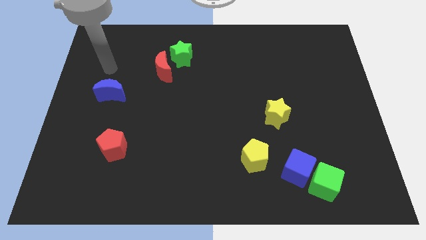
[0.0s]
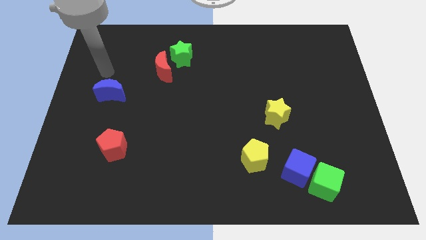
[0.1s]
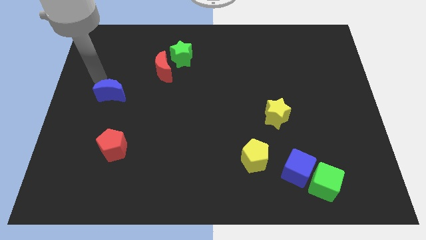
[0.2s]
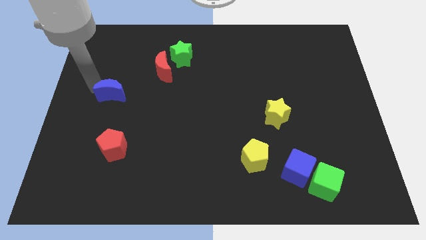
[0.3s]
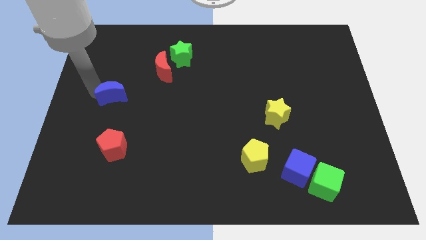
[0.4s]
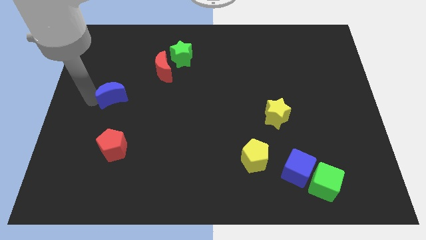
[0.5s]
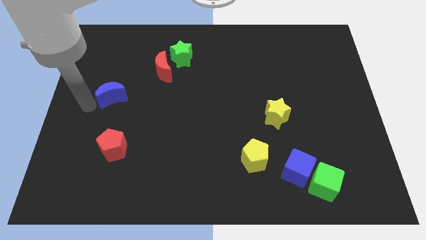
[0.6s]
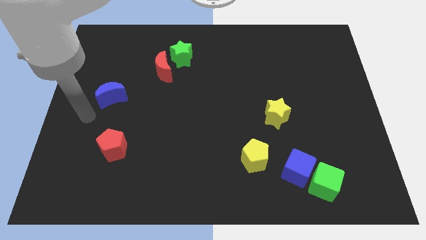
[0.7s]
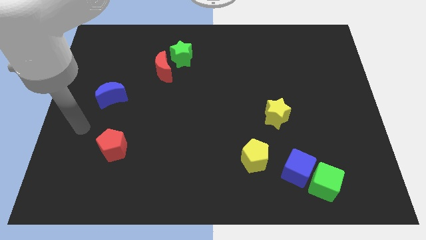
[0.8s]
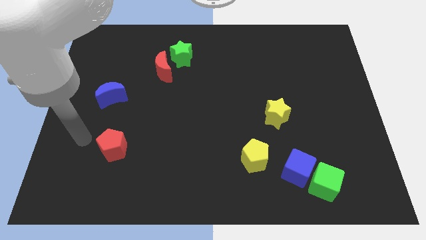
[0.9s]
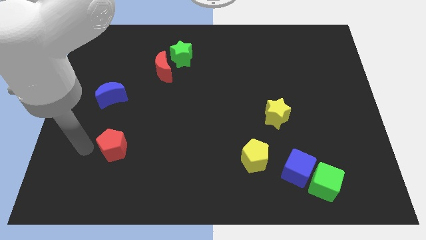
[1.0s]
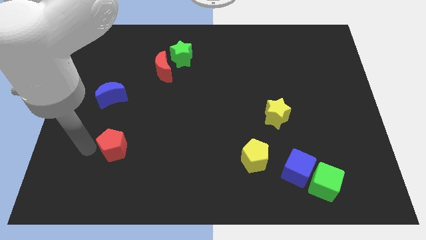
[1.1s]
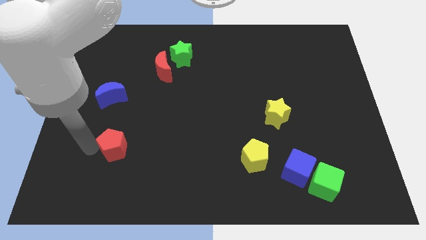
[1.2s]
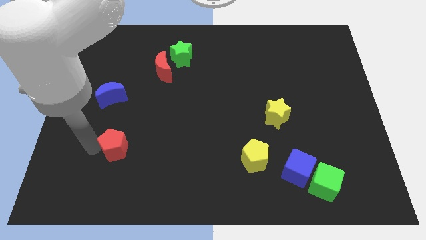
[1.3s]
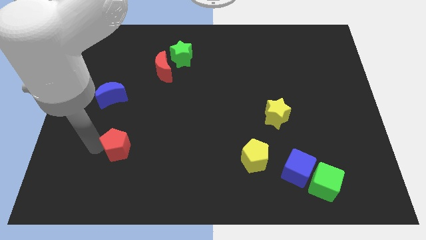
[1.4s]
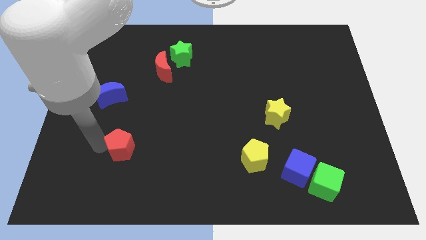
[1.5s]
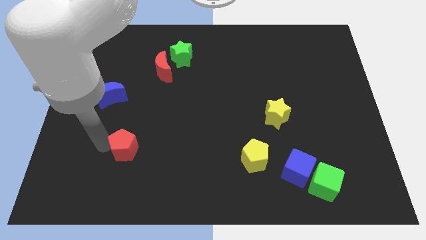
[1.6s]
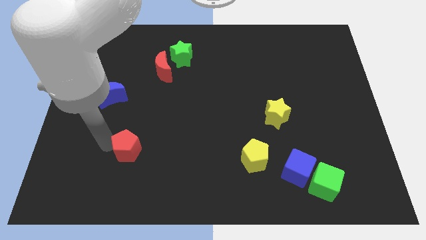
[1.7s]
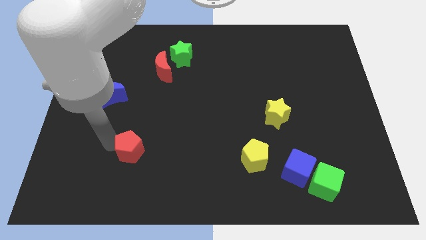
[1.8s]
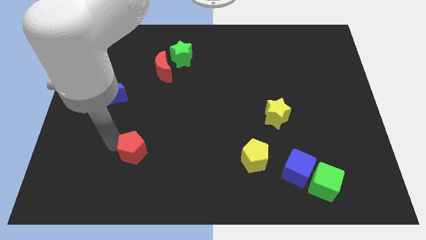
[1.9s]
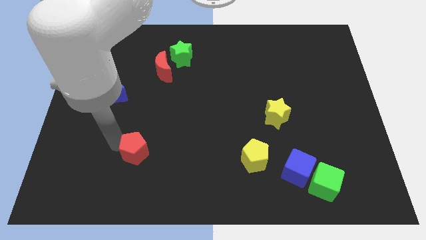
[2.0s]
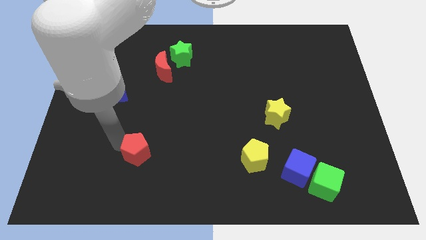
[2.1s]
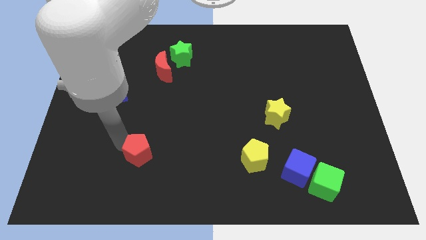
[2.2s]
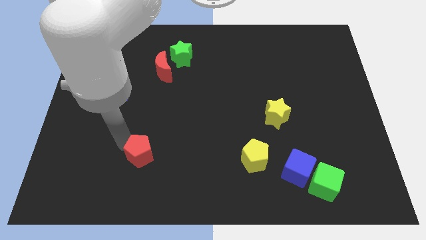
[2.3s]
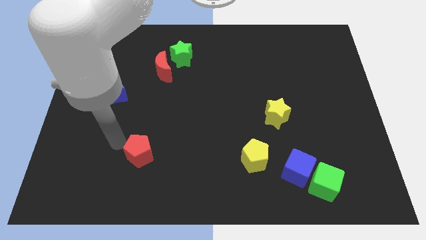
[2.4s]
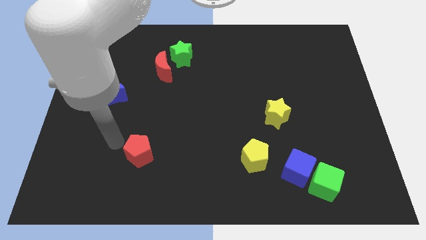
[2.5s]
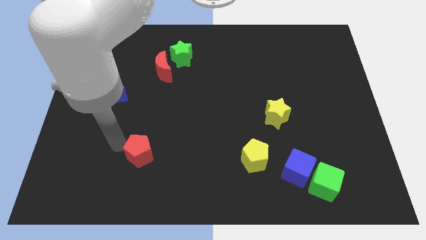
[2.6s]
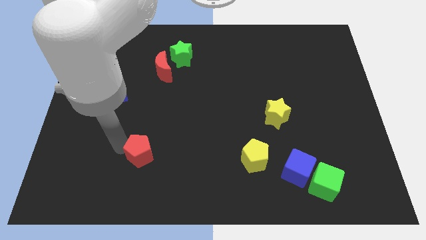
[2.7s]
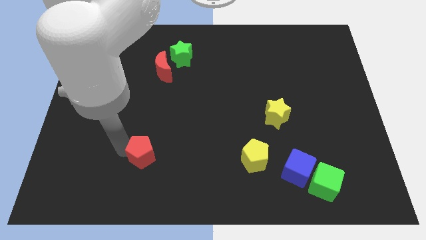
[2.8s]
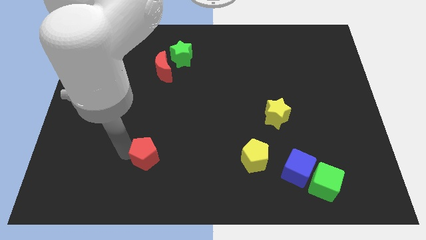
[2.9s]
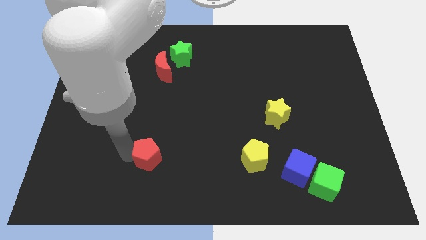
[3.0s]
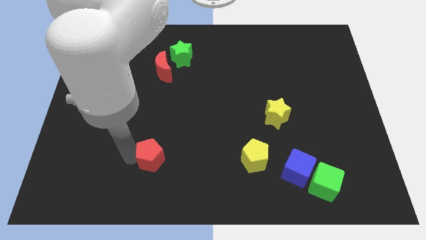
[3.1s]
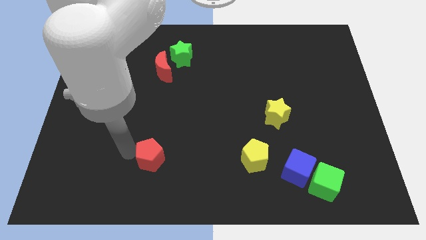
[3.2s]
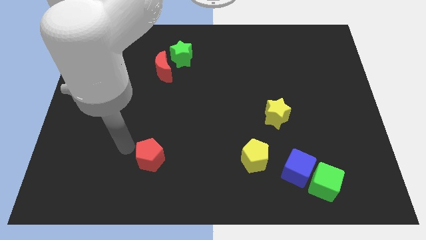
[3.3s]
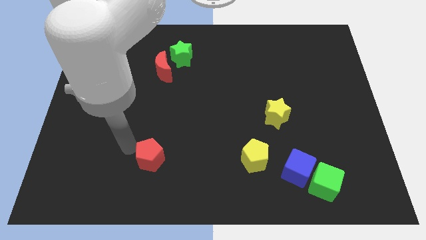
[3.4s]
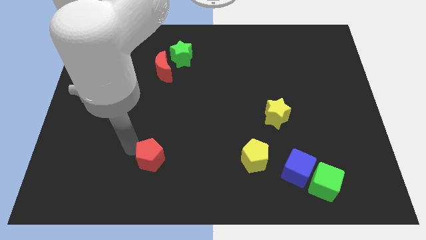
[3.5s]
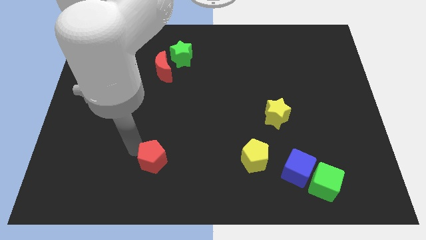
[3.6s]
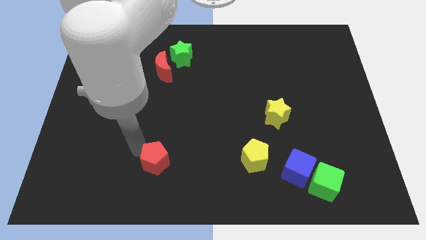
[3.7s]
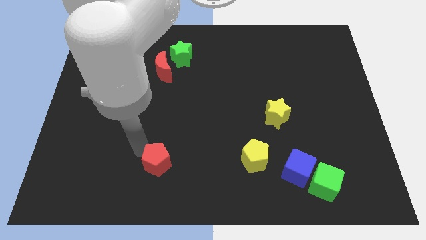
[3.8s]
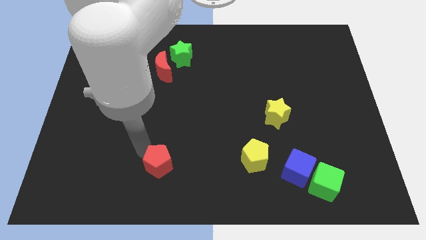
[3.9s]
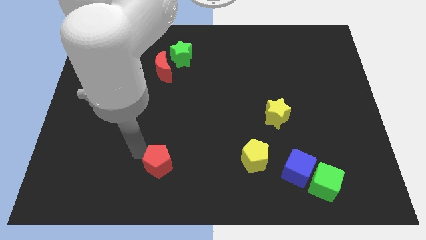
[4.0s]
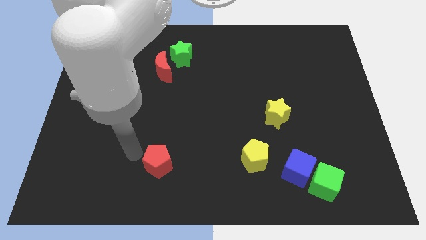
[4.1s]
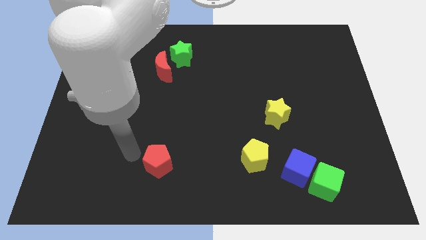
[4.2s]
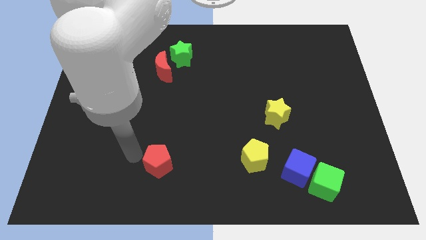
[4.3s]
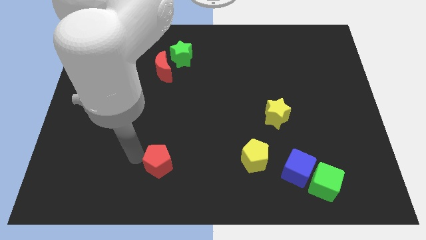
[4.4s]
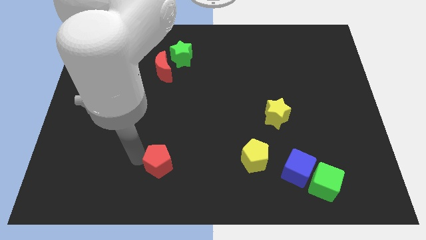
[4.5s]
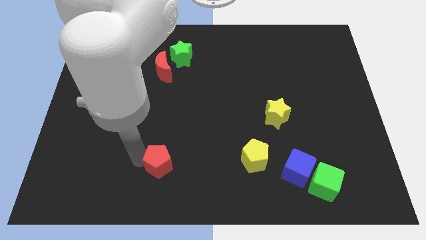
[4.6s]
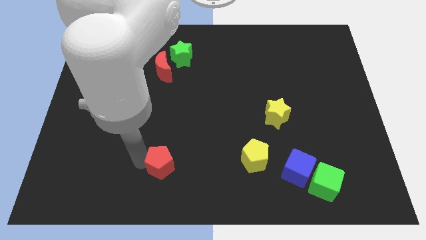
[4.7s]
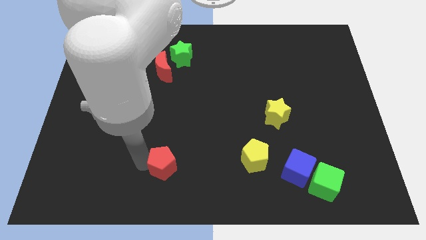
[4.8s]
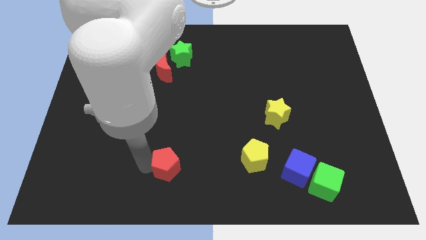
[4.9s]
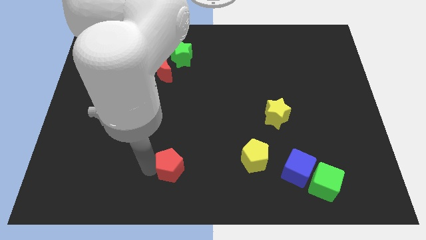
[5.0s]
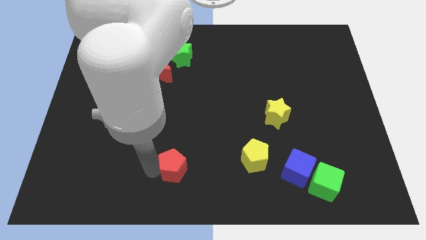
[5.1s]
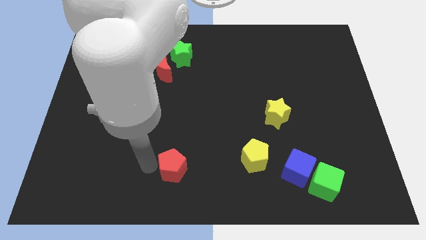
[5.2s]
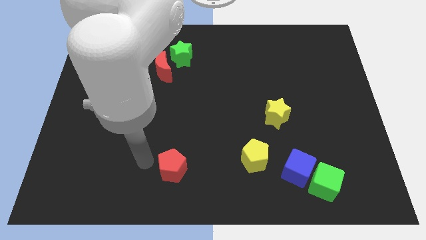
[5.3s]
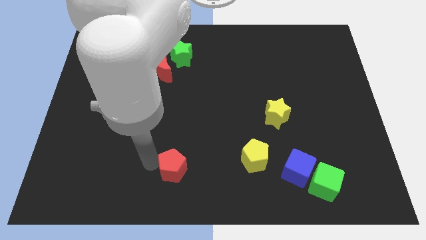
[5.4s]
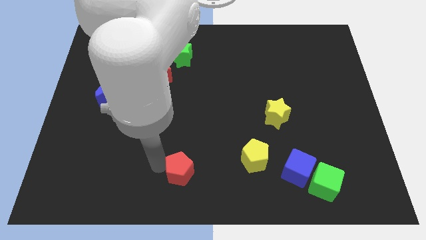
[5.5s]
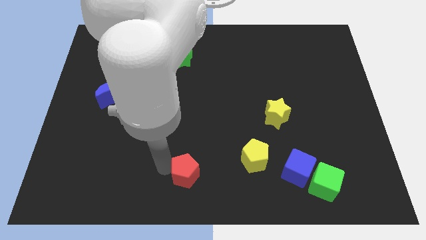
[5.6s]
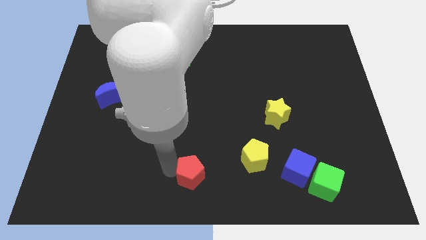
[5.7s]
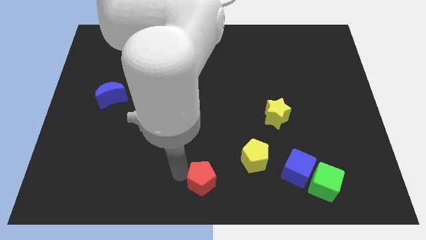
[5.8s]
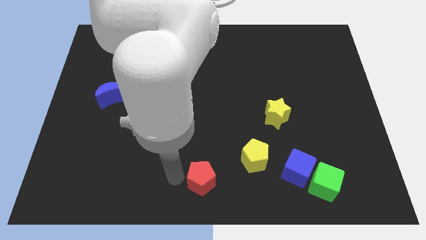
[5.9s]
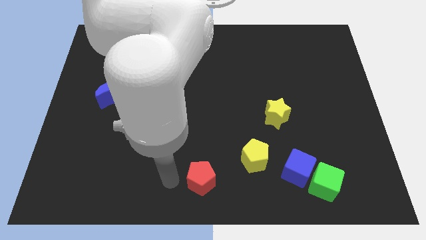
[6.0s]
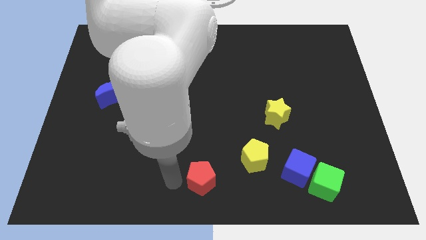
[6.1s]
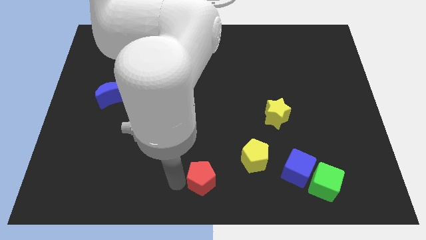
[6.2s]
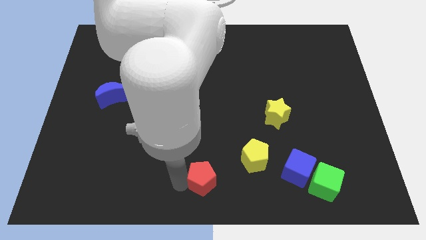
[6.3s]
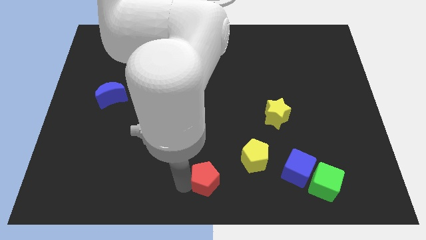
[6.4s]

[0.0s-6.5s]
push the red pentagon to the bottom left side of the yellow pentagon
